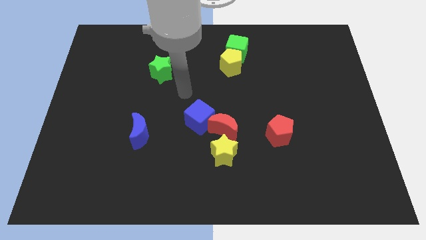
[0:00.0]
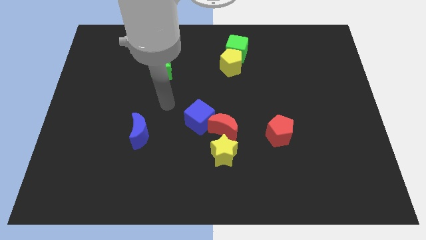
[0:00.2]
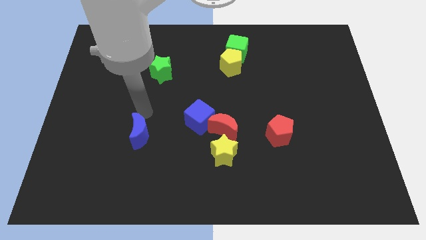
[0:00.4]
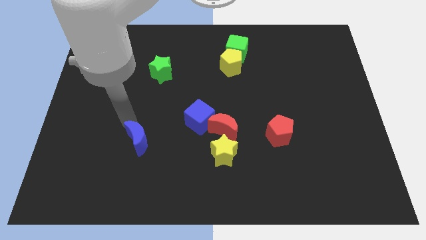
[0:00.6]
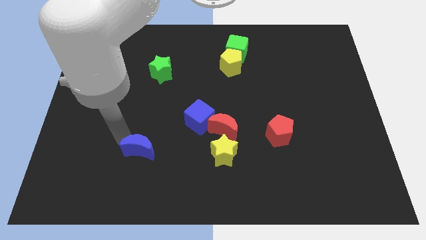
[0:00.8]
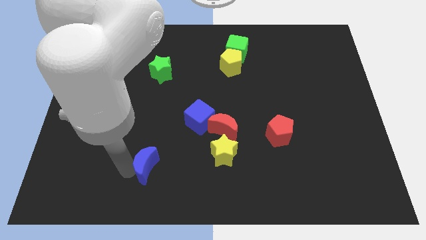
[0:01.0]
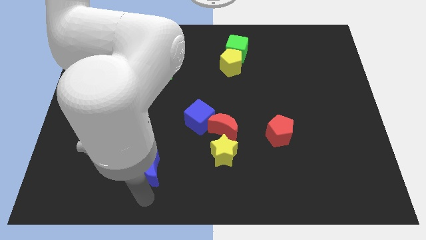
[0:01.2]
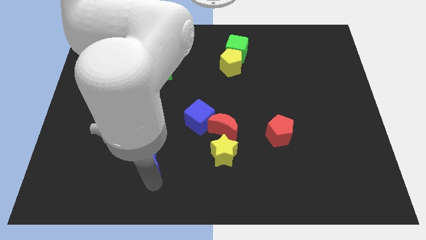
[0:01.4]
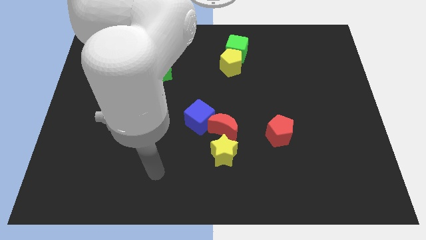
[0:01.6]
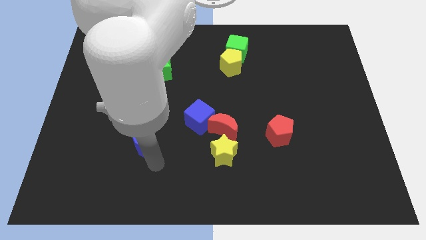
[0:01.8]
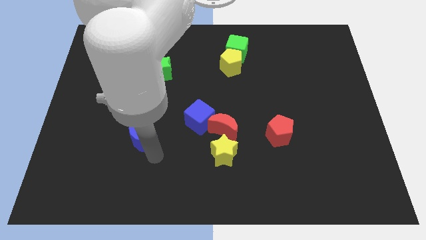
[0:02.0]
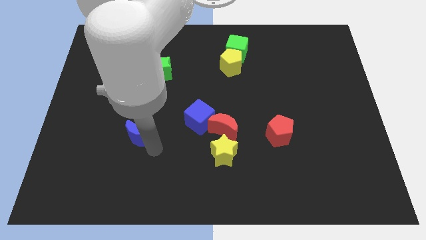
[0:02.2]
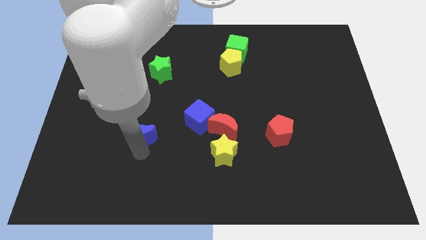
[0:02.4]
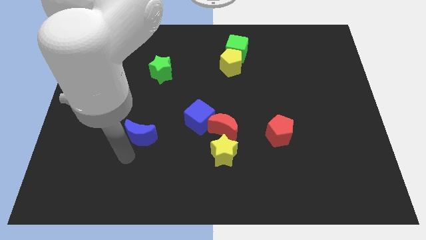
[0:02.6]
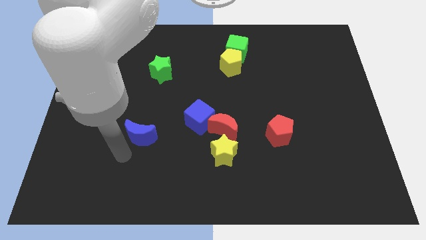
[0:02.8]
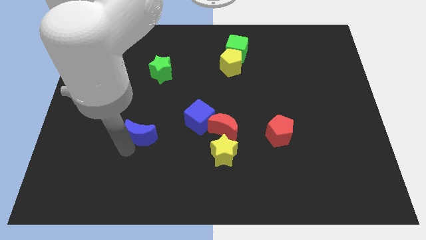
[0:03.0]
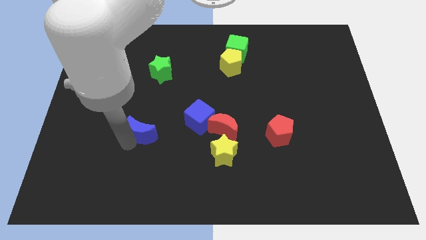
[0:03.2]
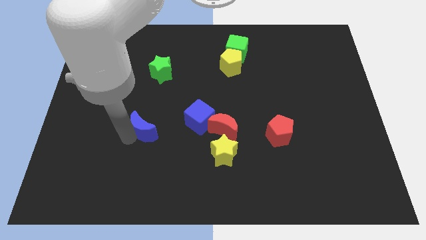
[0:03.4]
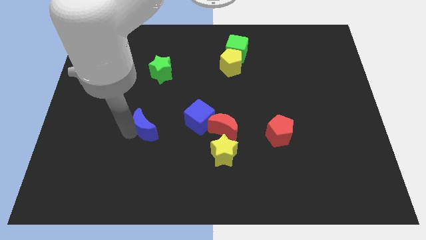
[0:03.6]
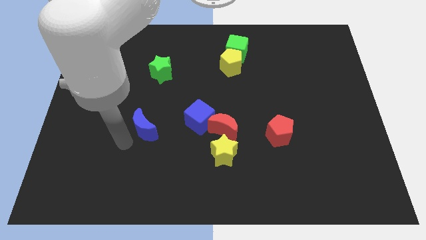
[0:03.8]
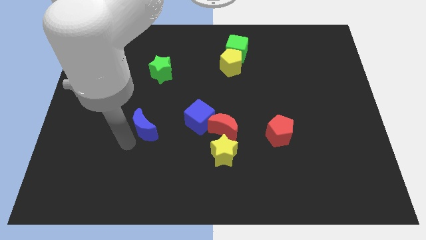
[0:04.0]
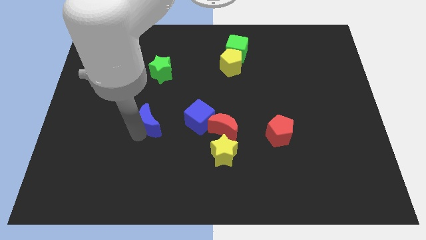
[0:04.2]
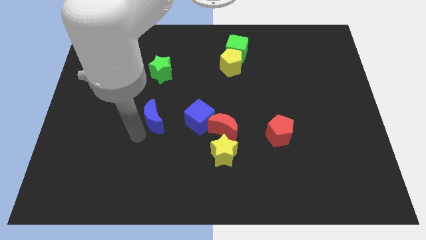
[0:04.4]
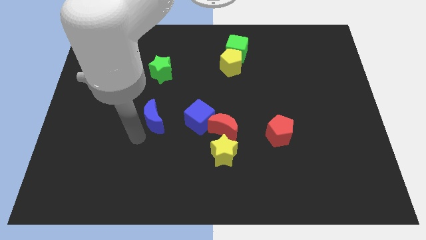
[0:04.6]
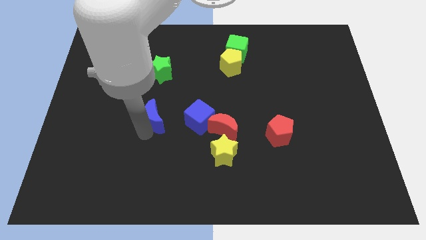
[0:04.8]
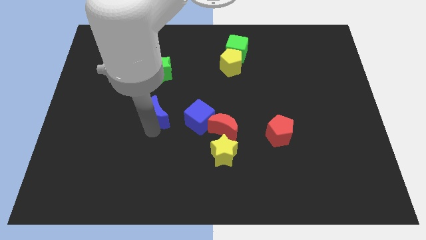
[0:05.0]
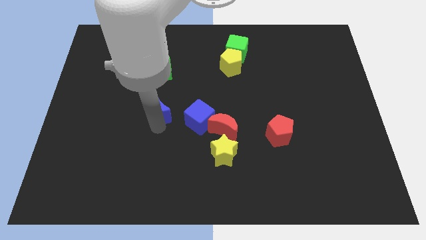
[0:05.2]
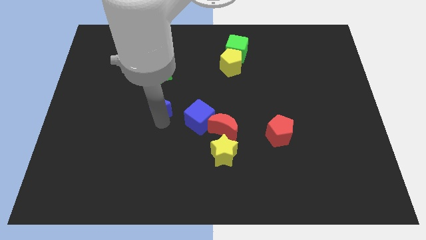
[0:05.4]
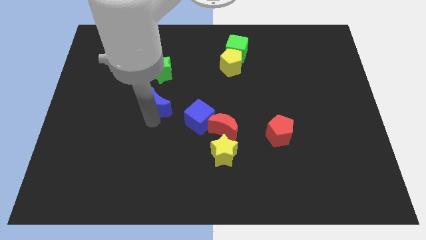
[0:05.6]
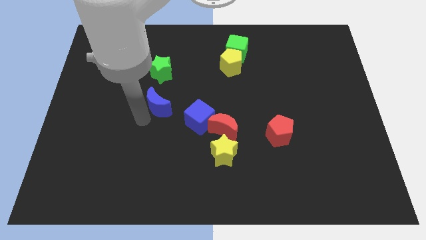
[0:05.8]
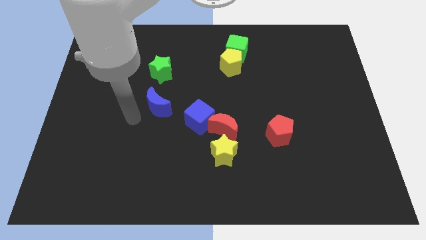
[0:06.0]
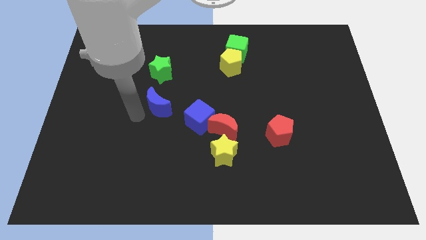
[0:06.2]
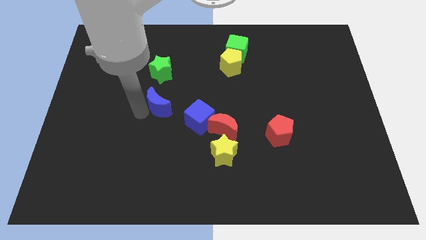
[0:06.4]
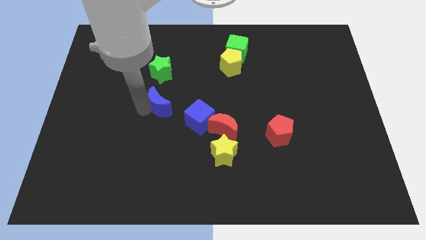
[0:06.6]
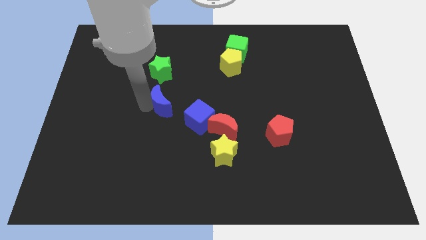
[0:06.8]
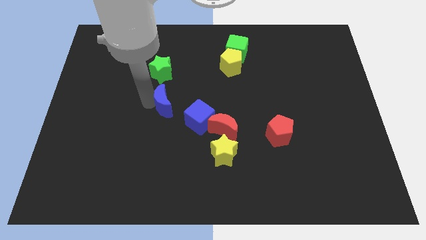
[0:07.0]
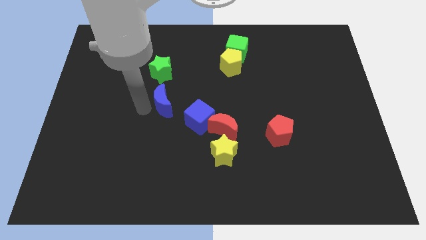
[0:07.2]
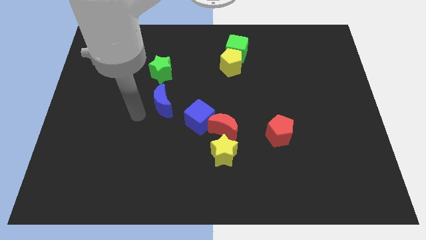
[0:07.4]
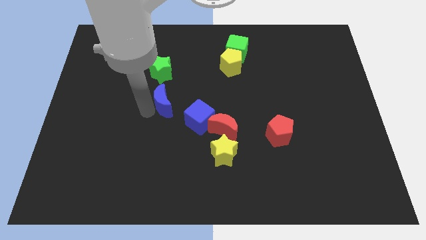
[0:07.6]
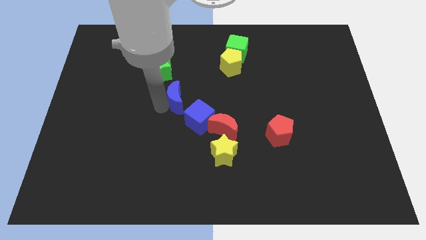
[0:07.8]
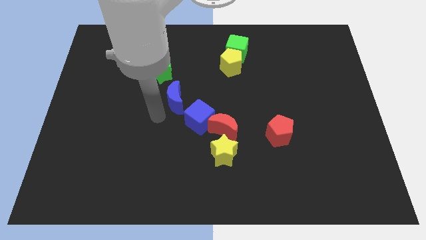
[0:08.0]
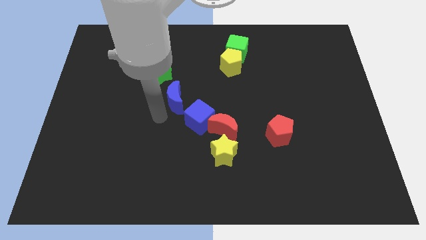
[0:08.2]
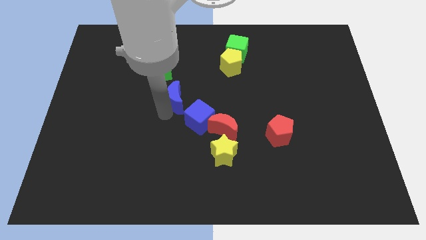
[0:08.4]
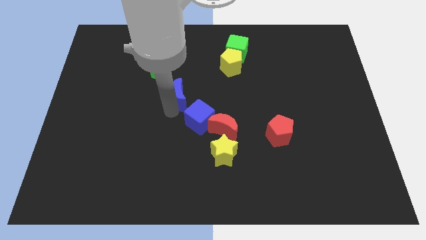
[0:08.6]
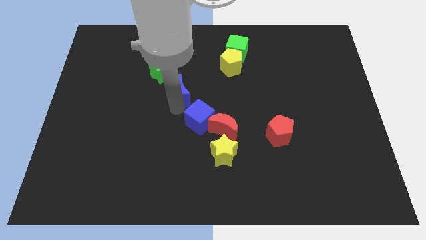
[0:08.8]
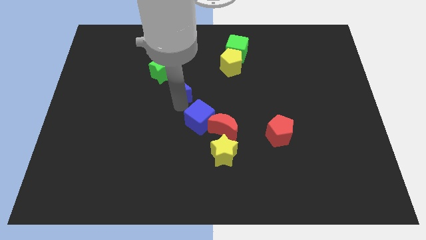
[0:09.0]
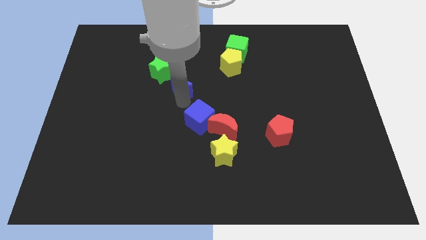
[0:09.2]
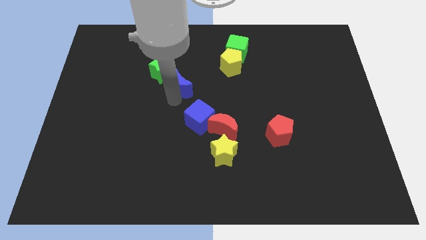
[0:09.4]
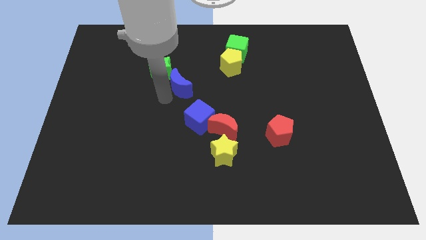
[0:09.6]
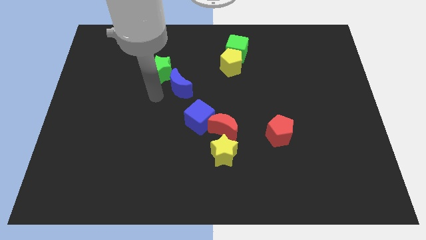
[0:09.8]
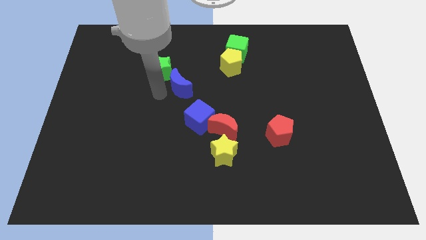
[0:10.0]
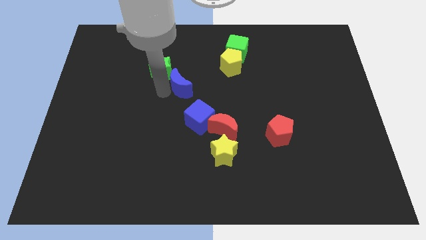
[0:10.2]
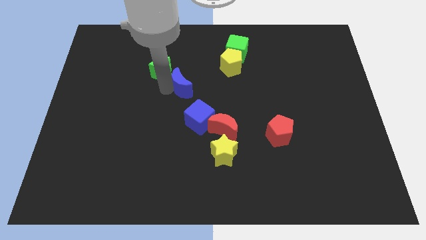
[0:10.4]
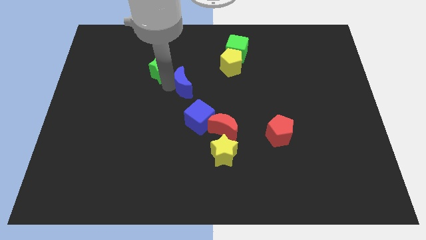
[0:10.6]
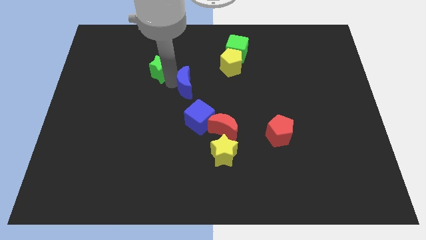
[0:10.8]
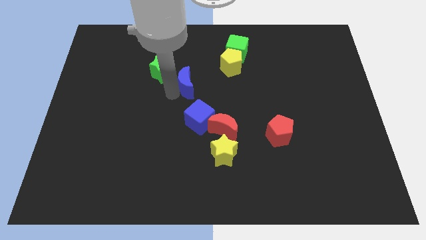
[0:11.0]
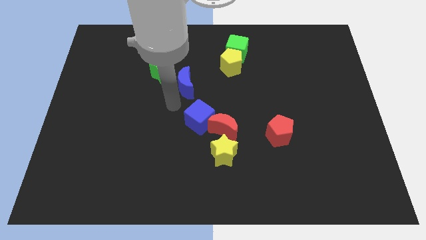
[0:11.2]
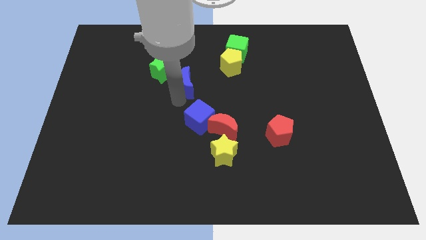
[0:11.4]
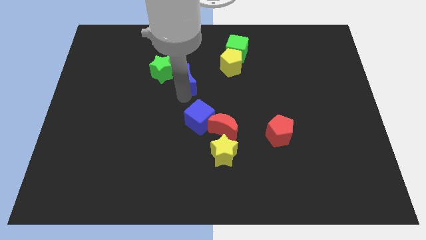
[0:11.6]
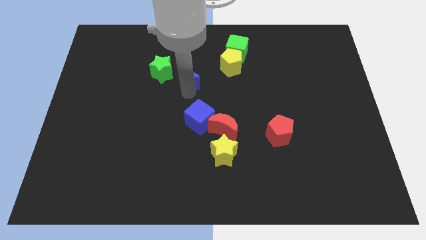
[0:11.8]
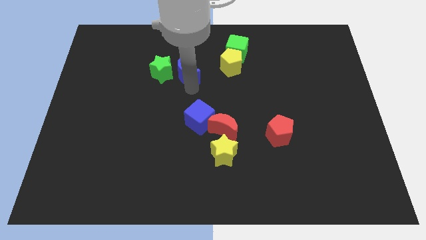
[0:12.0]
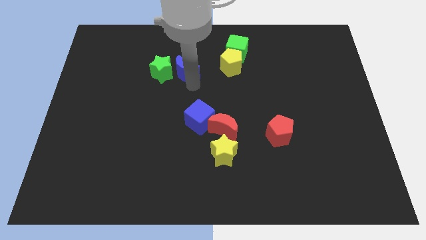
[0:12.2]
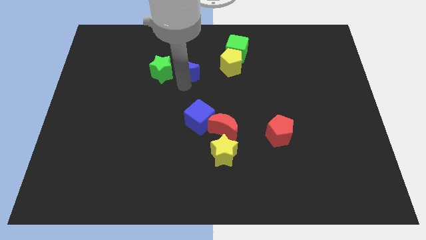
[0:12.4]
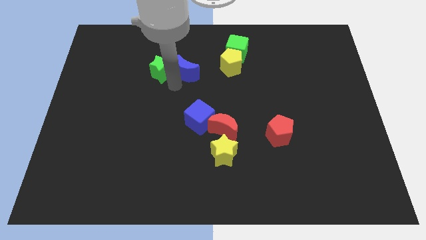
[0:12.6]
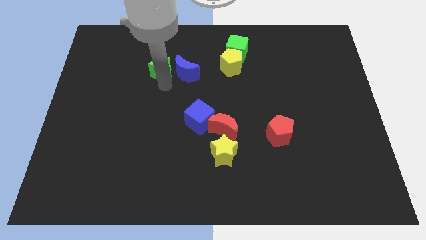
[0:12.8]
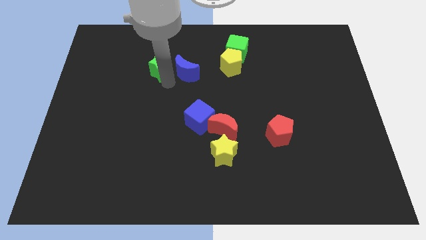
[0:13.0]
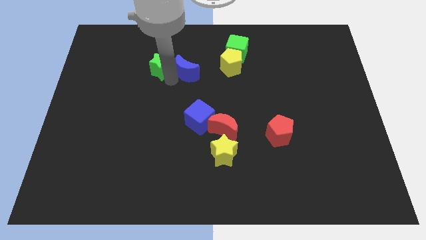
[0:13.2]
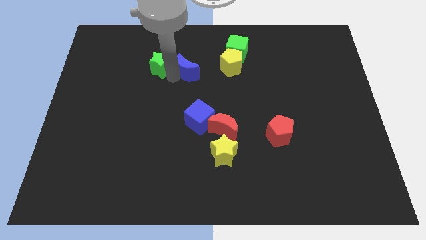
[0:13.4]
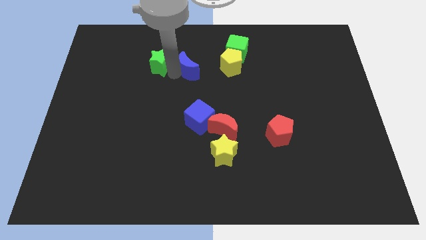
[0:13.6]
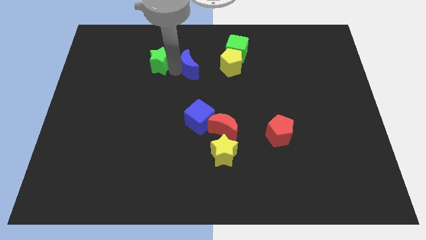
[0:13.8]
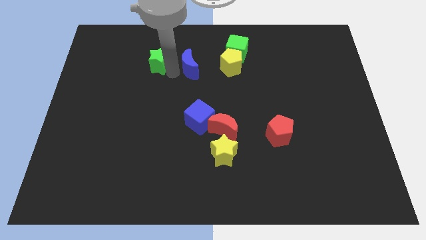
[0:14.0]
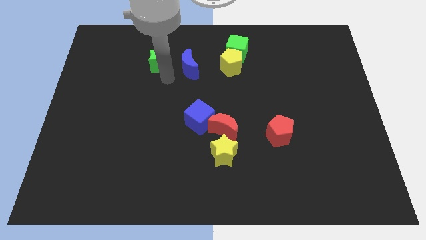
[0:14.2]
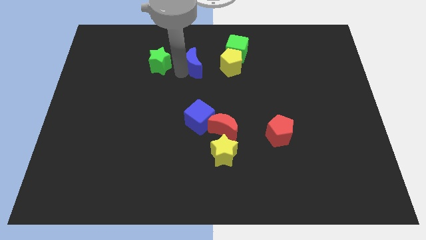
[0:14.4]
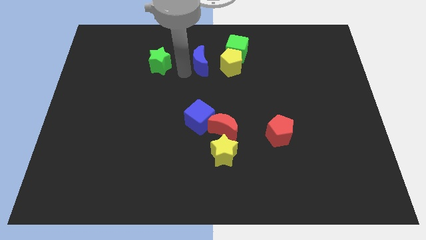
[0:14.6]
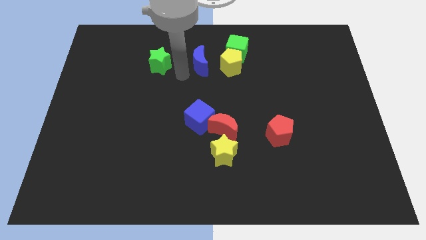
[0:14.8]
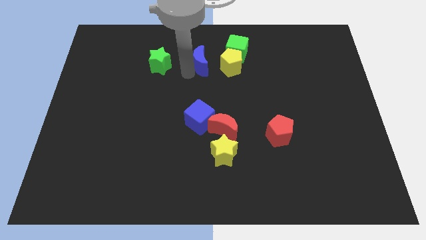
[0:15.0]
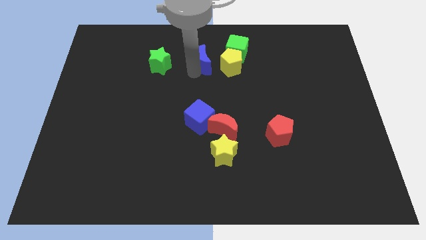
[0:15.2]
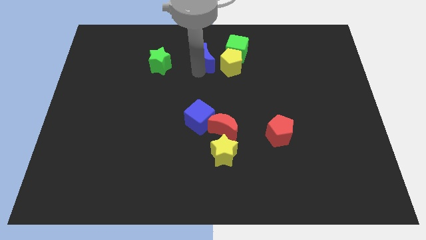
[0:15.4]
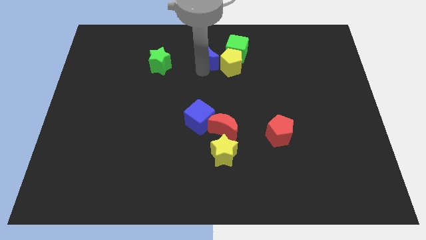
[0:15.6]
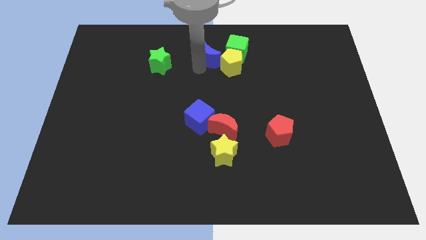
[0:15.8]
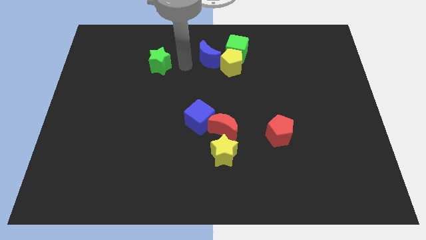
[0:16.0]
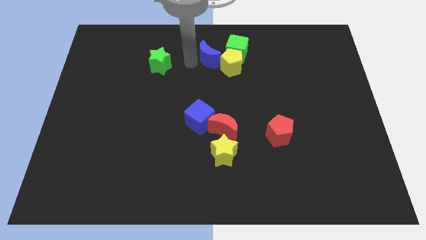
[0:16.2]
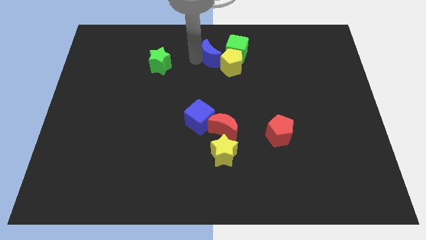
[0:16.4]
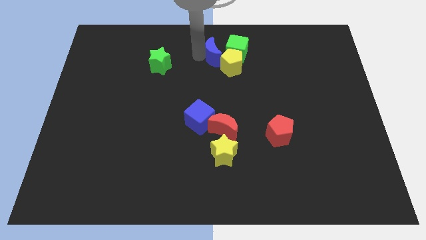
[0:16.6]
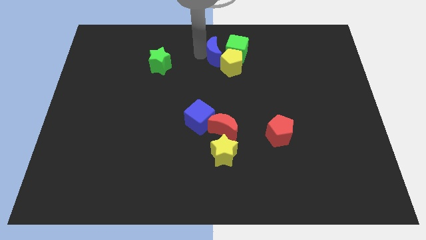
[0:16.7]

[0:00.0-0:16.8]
move the blue moon towards the green cube
